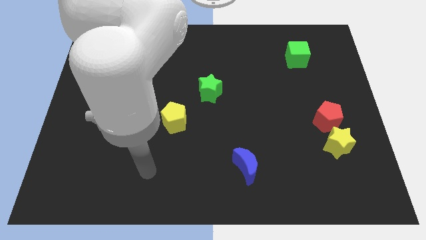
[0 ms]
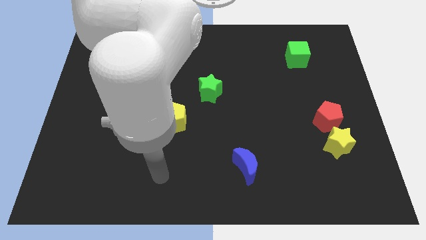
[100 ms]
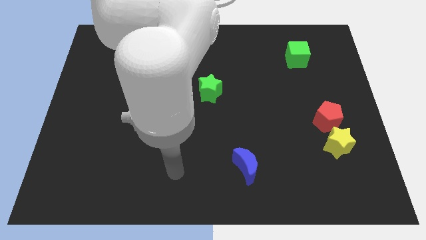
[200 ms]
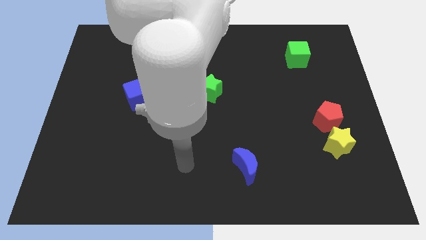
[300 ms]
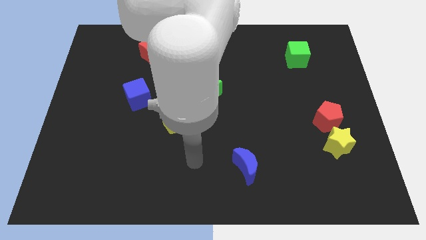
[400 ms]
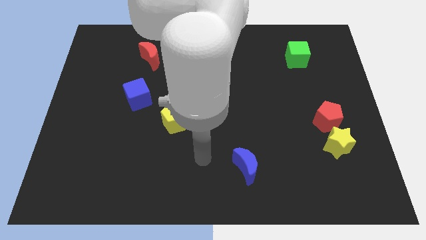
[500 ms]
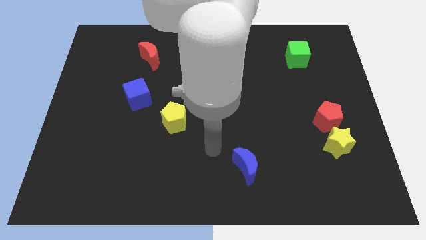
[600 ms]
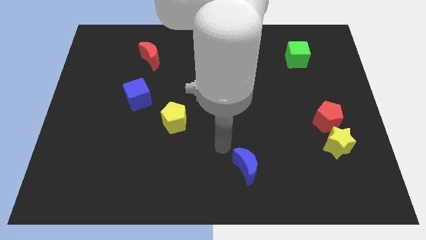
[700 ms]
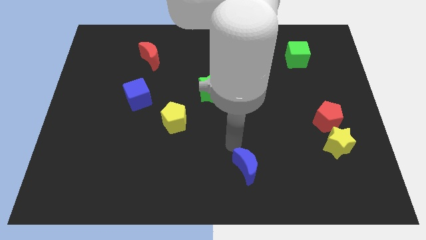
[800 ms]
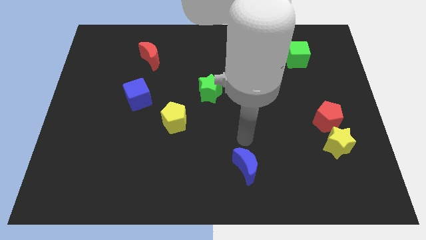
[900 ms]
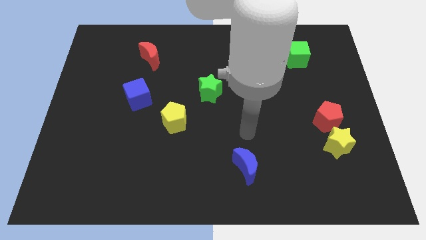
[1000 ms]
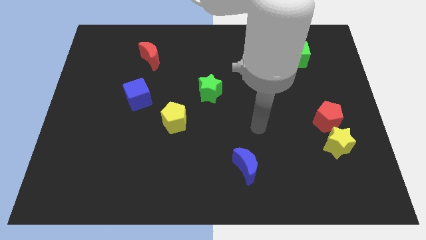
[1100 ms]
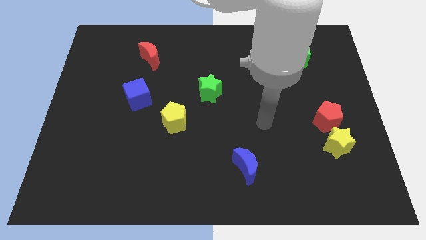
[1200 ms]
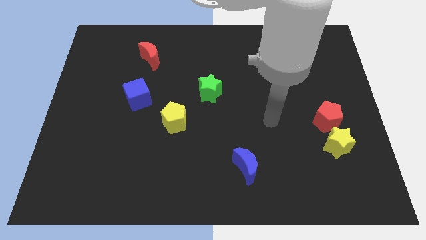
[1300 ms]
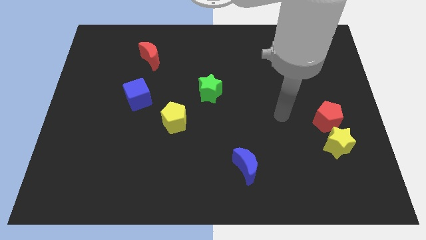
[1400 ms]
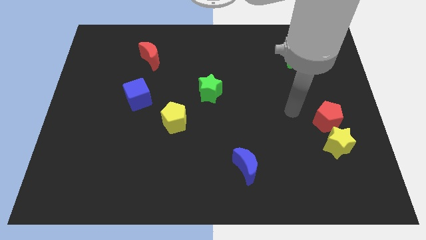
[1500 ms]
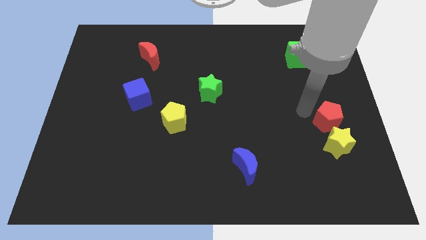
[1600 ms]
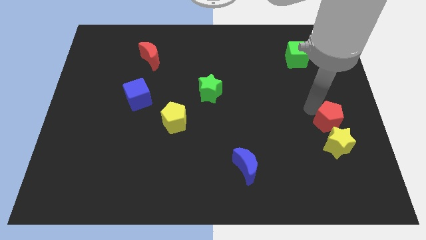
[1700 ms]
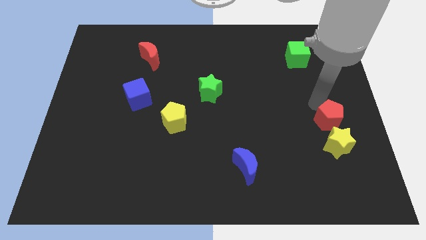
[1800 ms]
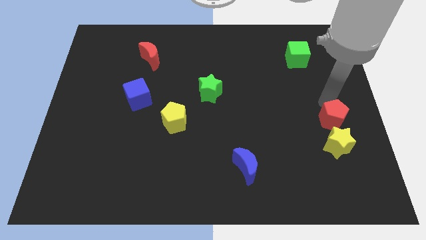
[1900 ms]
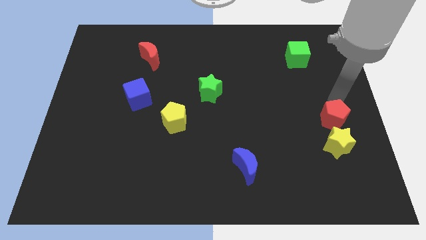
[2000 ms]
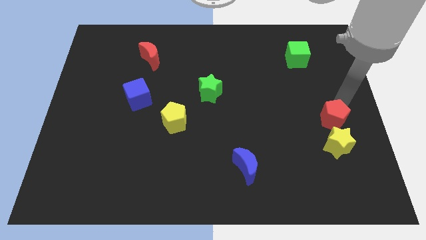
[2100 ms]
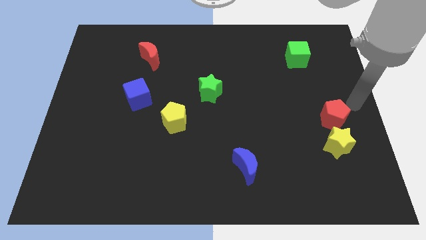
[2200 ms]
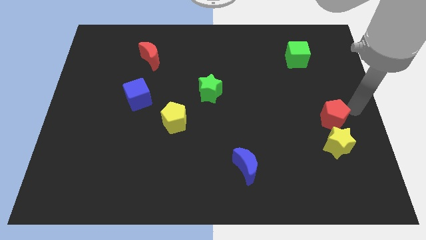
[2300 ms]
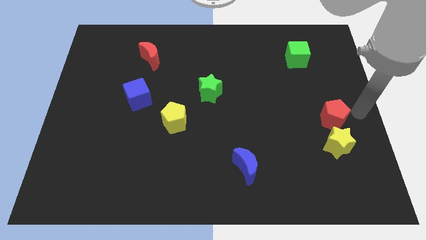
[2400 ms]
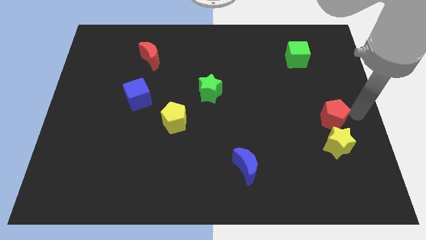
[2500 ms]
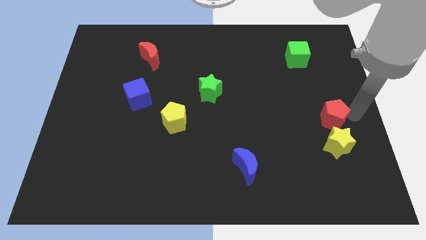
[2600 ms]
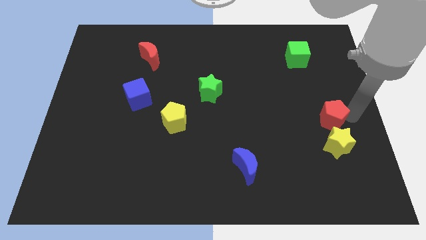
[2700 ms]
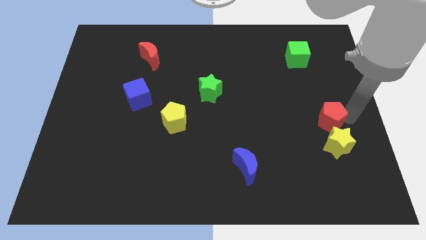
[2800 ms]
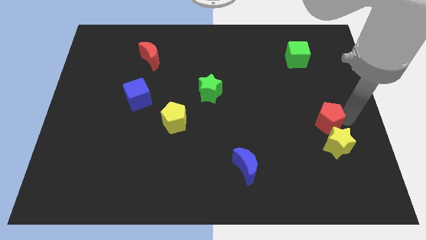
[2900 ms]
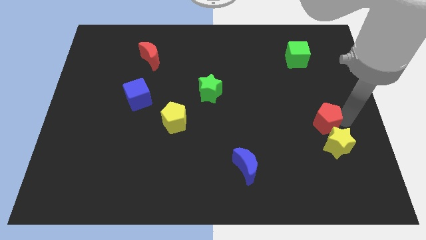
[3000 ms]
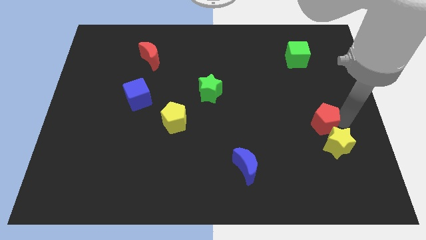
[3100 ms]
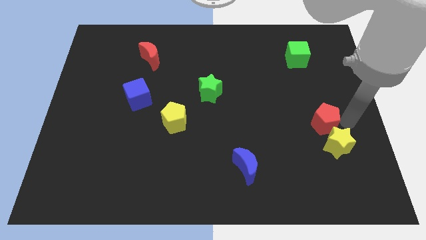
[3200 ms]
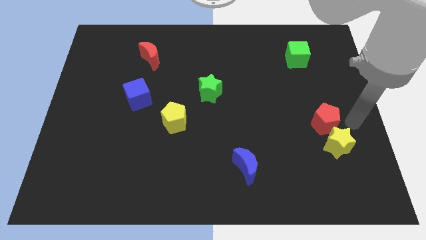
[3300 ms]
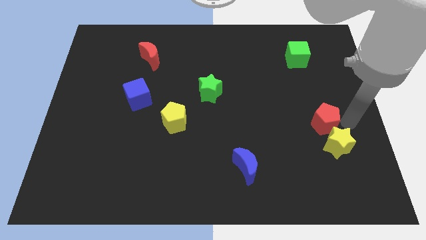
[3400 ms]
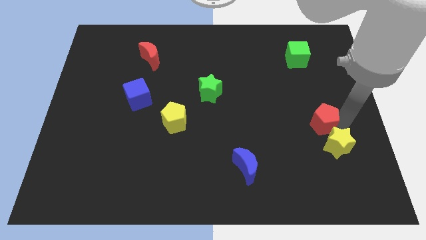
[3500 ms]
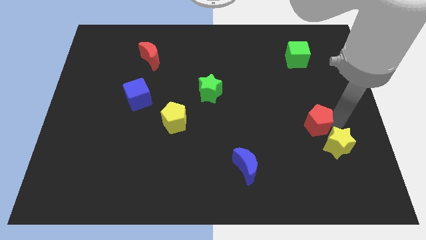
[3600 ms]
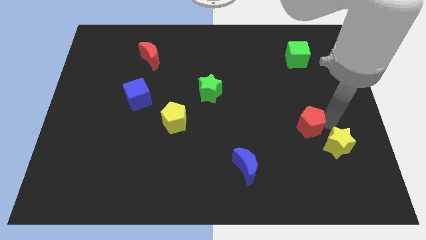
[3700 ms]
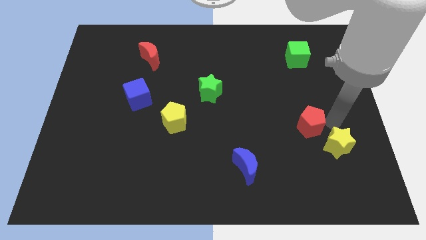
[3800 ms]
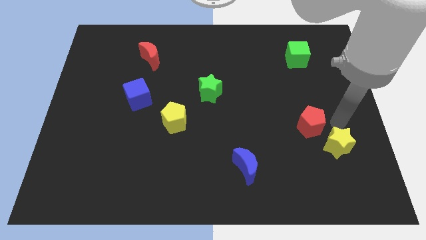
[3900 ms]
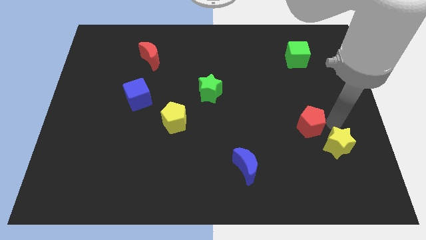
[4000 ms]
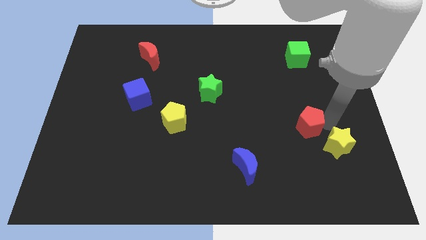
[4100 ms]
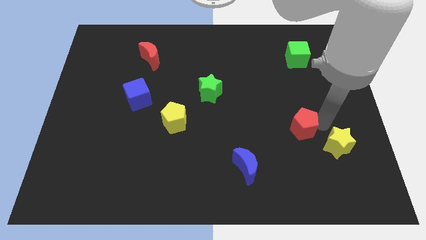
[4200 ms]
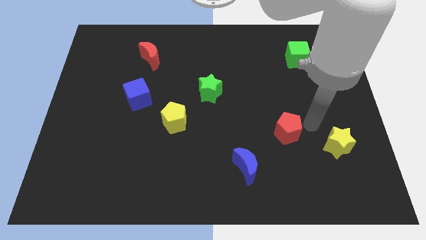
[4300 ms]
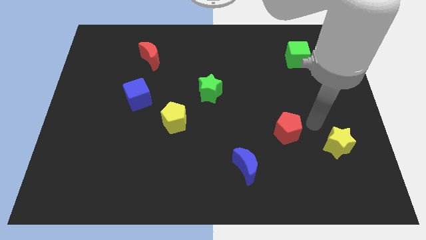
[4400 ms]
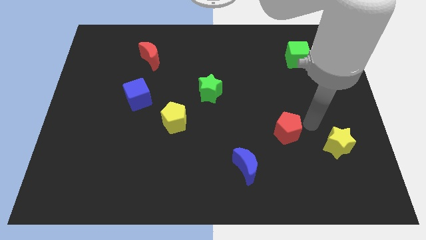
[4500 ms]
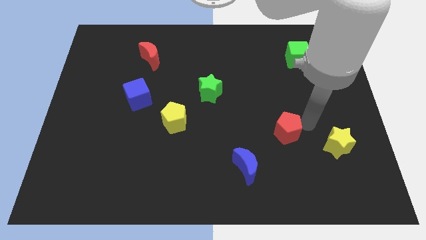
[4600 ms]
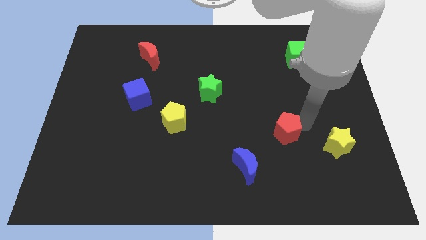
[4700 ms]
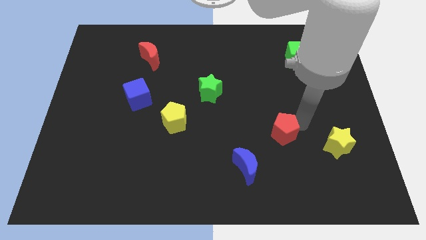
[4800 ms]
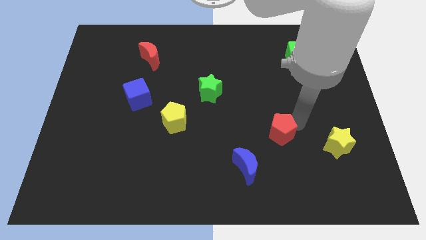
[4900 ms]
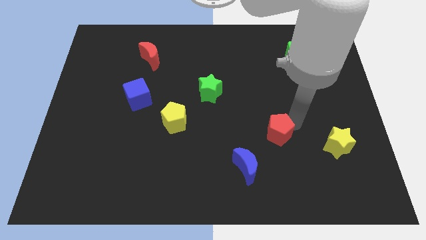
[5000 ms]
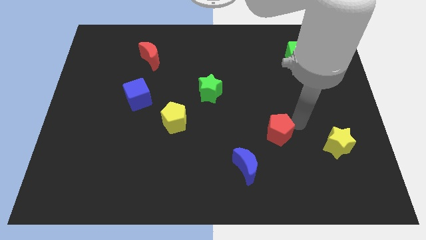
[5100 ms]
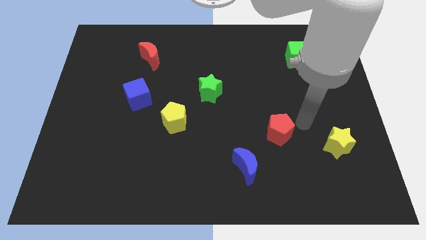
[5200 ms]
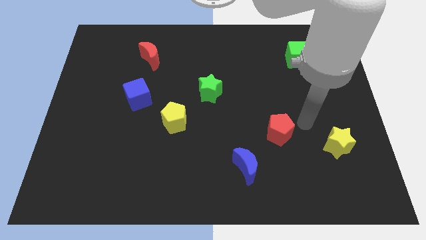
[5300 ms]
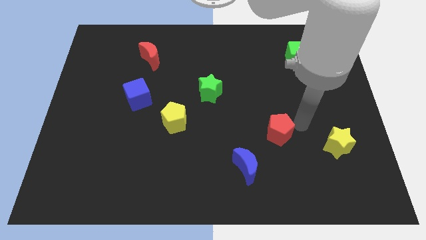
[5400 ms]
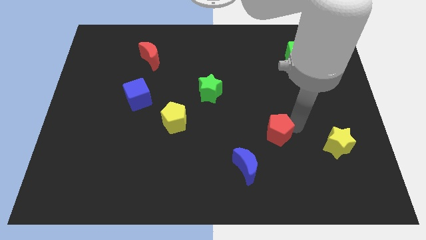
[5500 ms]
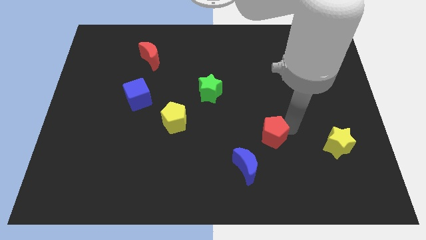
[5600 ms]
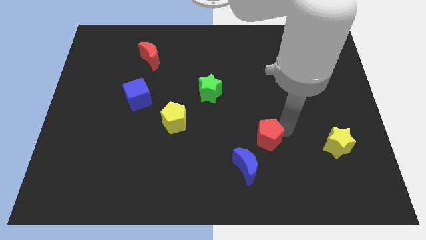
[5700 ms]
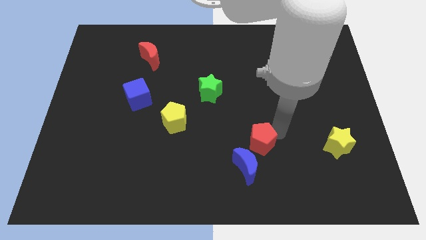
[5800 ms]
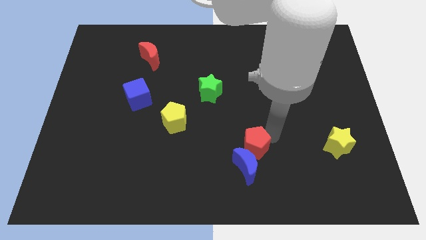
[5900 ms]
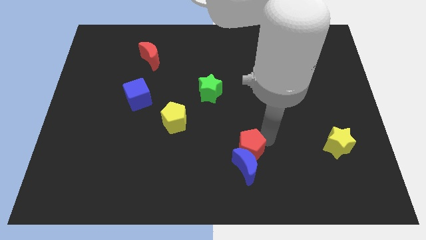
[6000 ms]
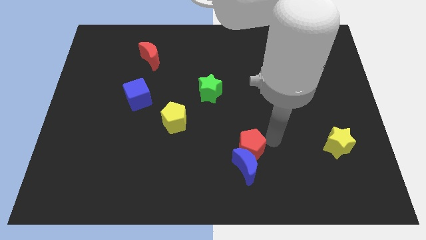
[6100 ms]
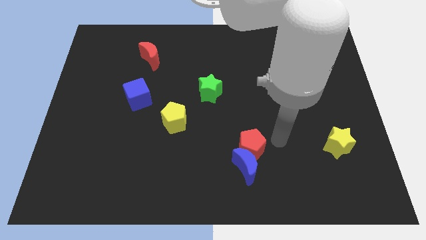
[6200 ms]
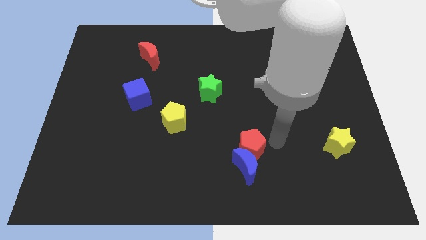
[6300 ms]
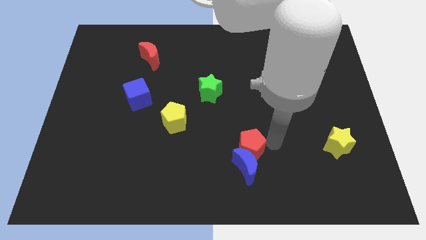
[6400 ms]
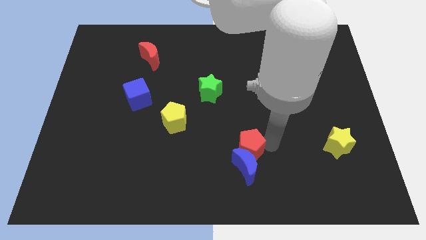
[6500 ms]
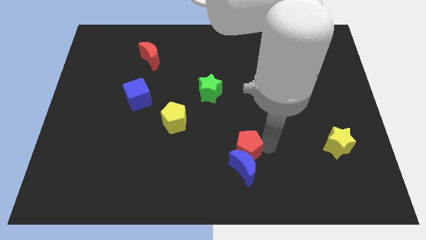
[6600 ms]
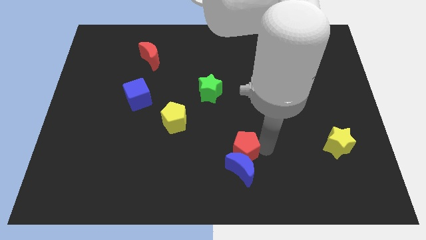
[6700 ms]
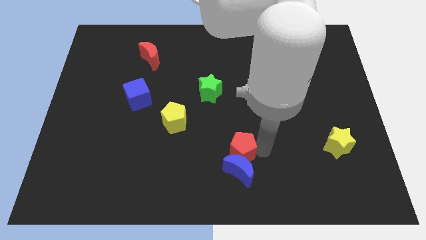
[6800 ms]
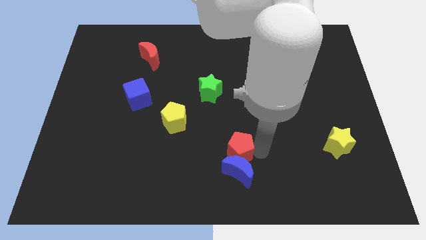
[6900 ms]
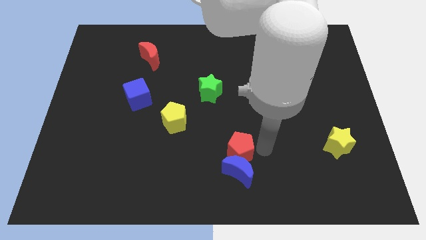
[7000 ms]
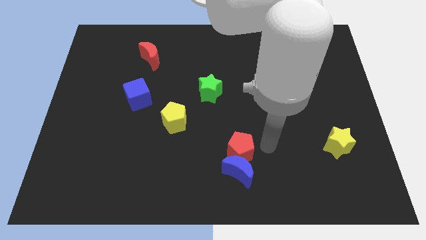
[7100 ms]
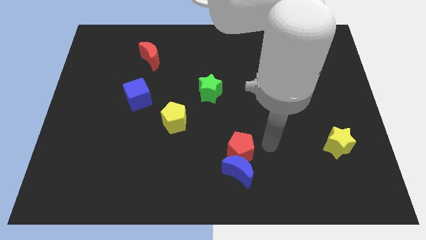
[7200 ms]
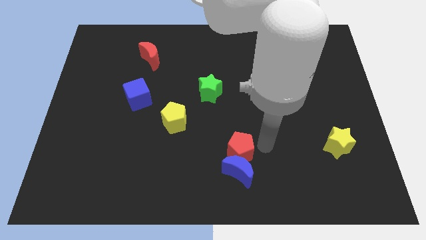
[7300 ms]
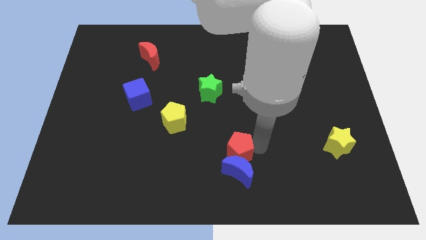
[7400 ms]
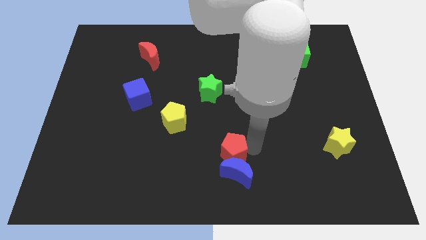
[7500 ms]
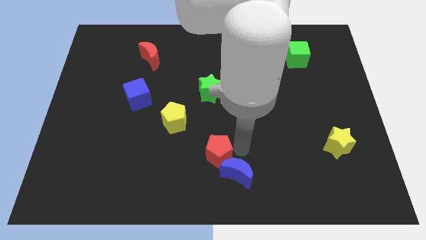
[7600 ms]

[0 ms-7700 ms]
move the red pentagon to the left of the blue moon
